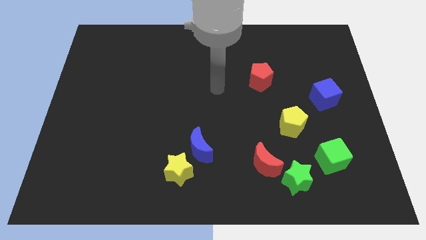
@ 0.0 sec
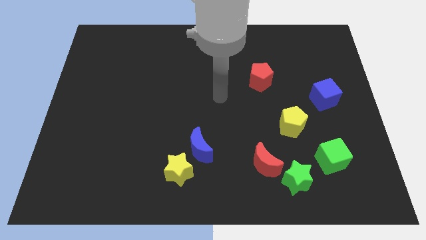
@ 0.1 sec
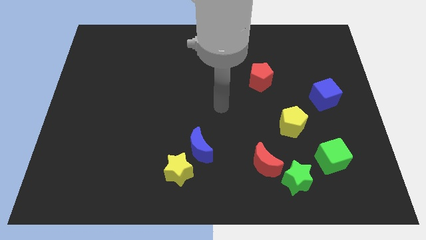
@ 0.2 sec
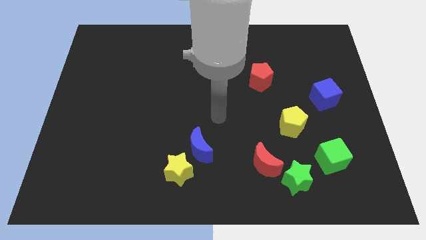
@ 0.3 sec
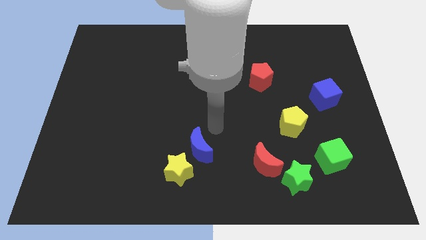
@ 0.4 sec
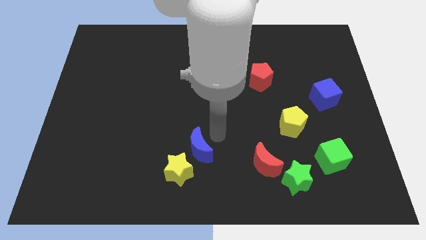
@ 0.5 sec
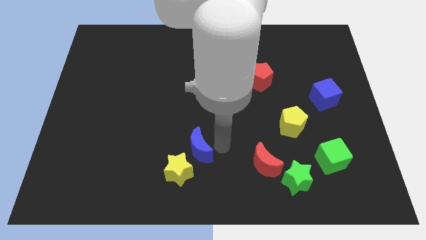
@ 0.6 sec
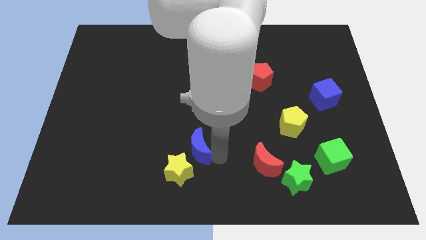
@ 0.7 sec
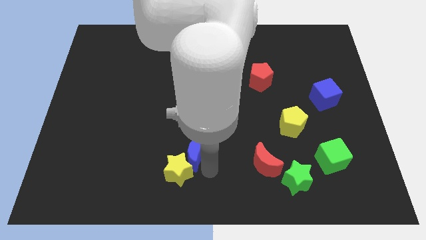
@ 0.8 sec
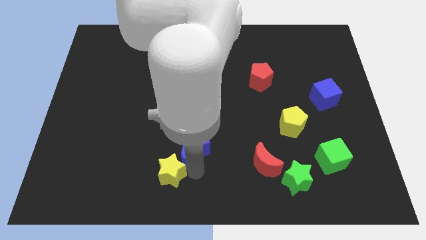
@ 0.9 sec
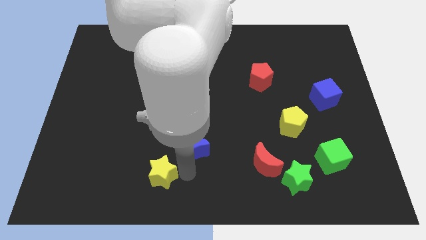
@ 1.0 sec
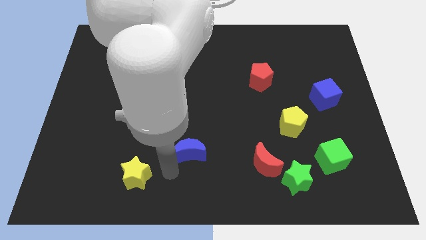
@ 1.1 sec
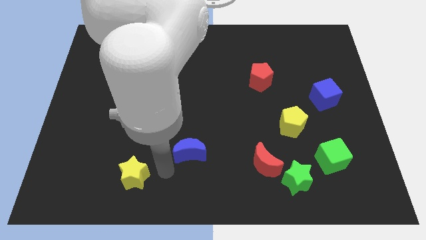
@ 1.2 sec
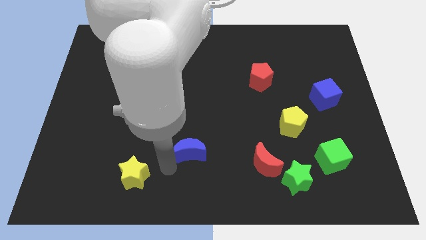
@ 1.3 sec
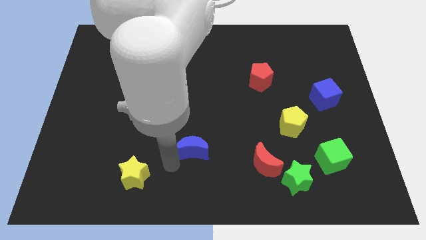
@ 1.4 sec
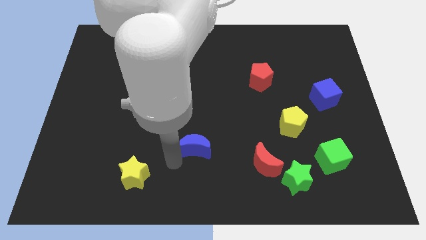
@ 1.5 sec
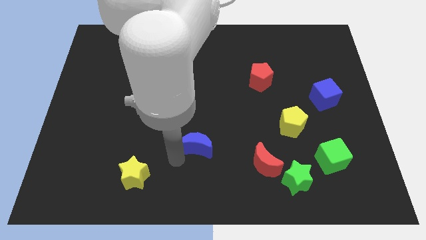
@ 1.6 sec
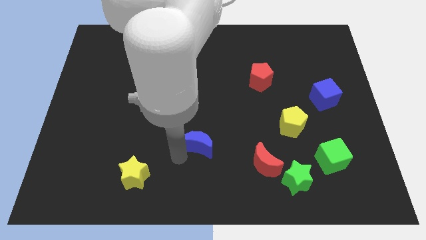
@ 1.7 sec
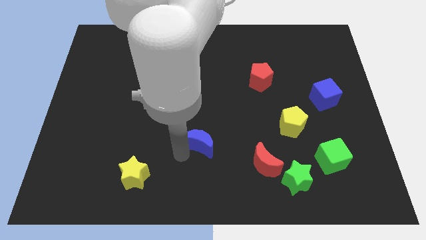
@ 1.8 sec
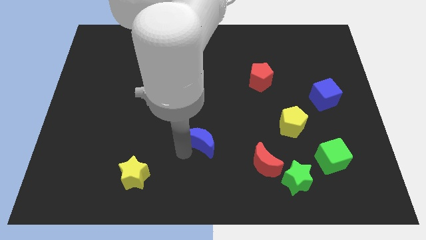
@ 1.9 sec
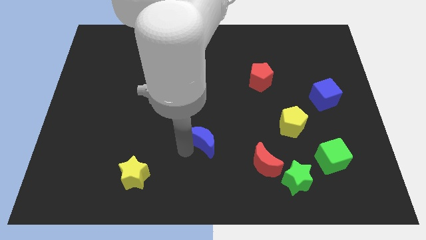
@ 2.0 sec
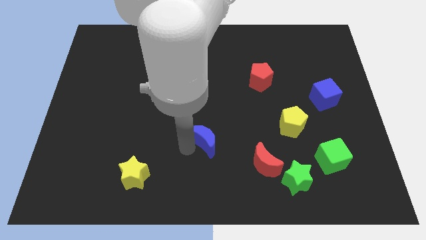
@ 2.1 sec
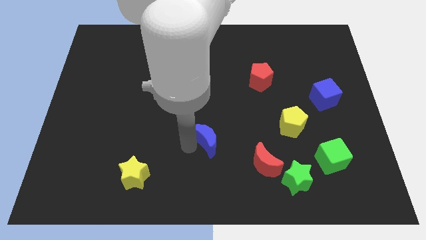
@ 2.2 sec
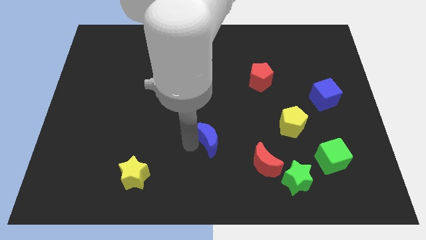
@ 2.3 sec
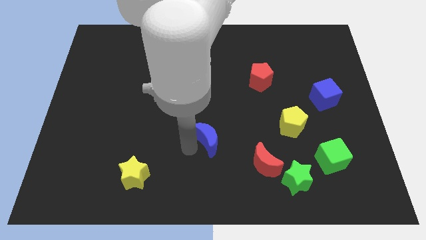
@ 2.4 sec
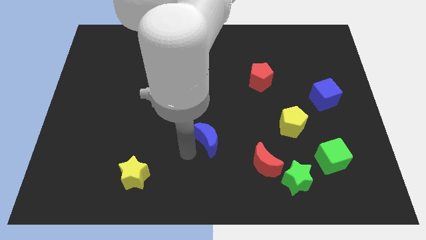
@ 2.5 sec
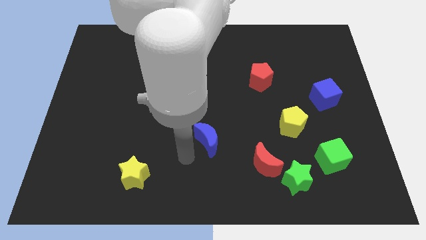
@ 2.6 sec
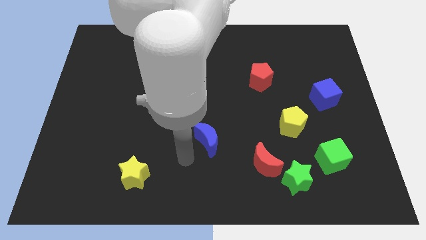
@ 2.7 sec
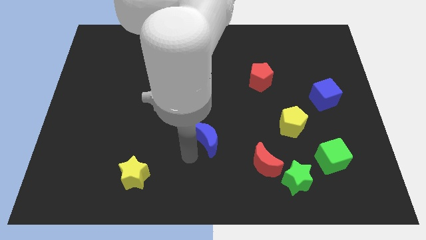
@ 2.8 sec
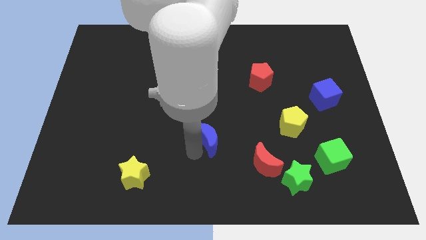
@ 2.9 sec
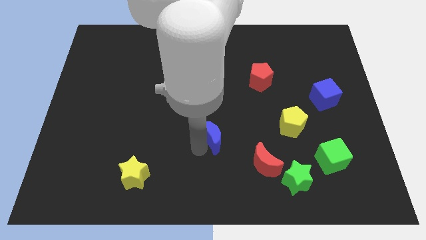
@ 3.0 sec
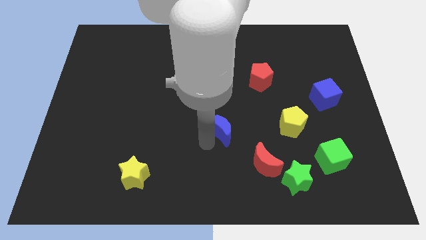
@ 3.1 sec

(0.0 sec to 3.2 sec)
slide the blue moon a bit up and then to the right

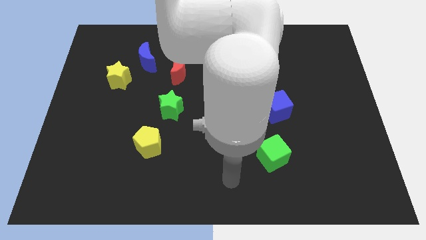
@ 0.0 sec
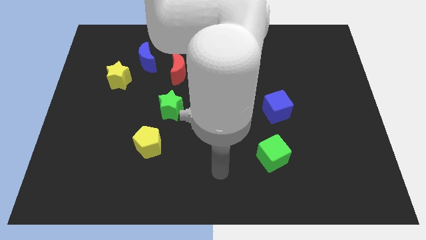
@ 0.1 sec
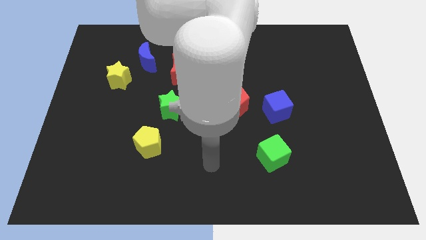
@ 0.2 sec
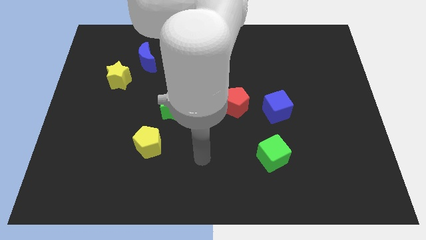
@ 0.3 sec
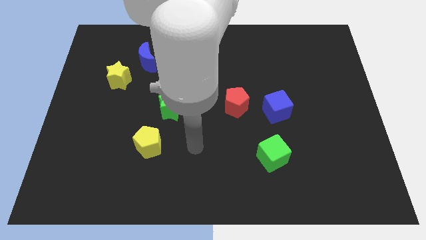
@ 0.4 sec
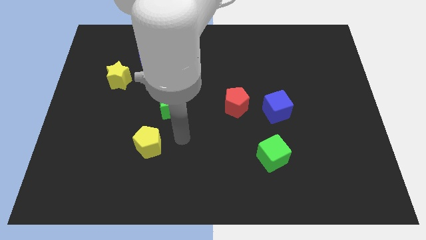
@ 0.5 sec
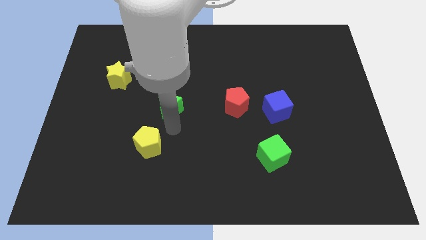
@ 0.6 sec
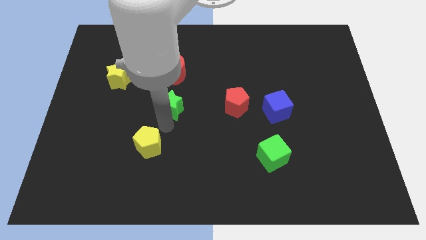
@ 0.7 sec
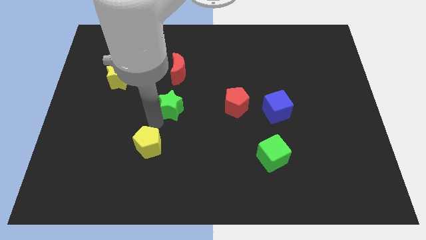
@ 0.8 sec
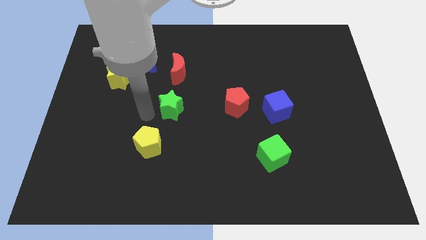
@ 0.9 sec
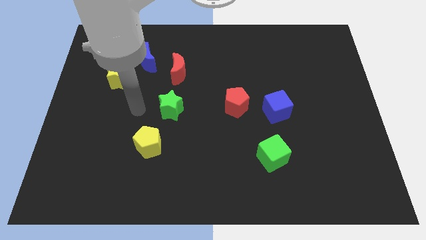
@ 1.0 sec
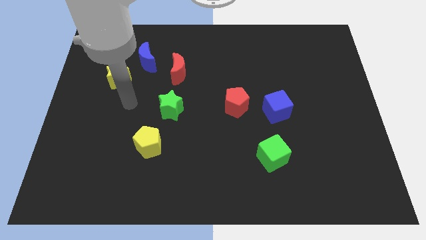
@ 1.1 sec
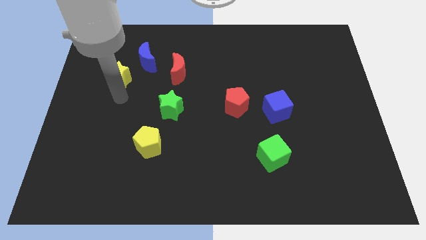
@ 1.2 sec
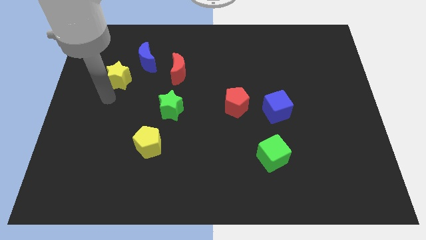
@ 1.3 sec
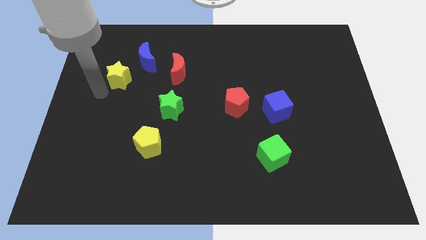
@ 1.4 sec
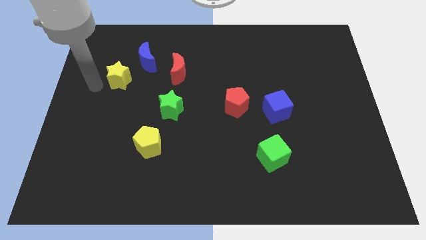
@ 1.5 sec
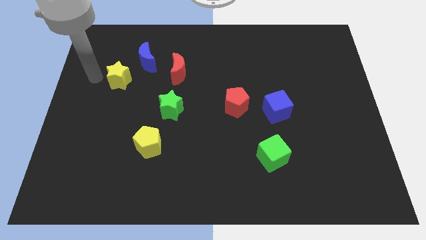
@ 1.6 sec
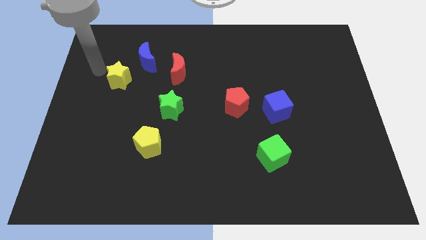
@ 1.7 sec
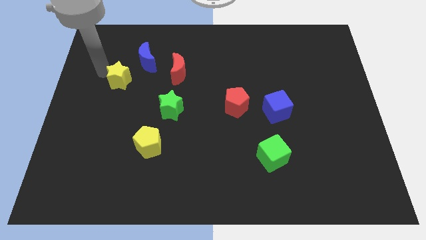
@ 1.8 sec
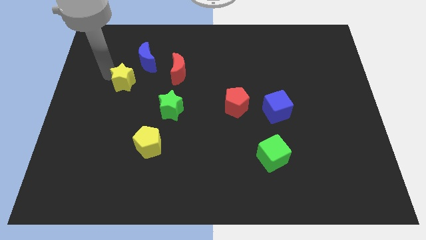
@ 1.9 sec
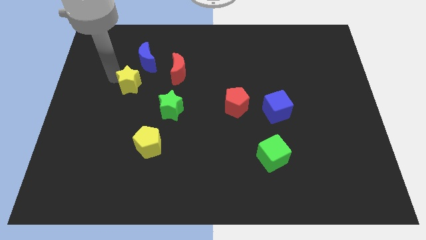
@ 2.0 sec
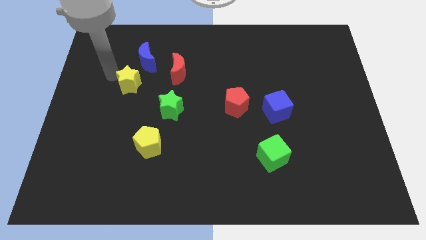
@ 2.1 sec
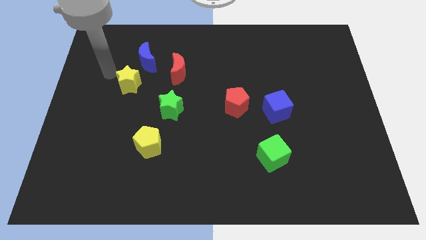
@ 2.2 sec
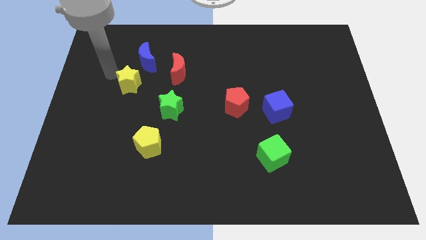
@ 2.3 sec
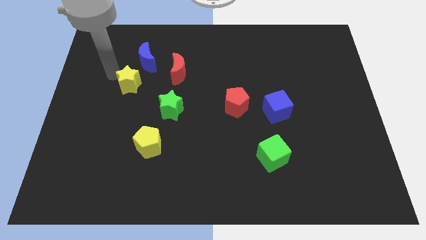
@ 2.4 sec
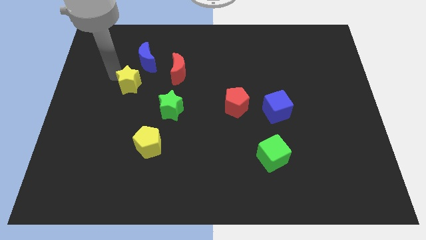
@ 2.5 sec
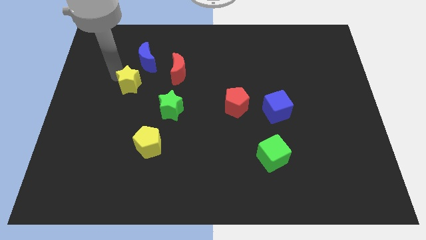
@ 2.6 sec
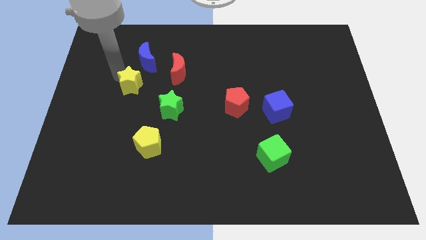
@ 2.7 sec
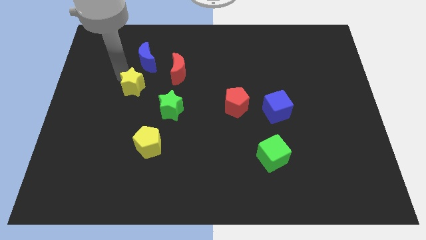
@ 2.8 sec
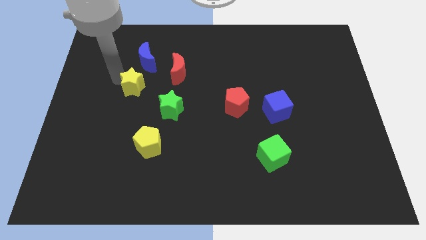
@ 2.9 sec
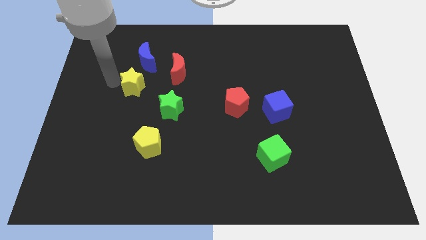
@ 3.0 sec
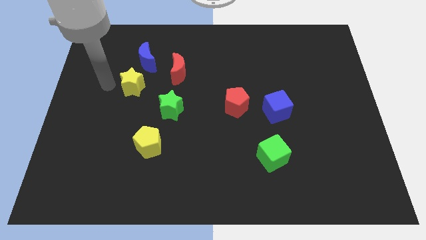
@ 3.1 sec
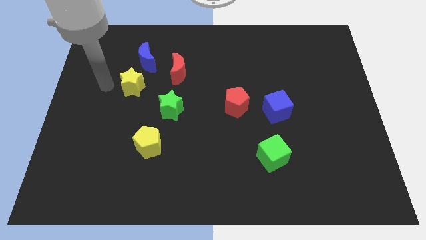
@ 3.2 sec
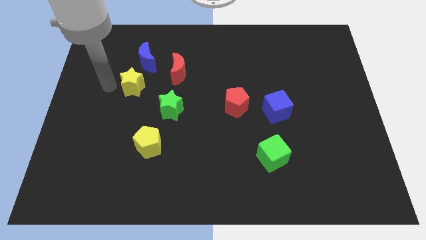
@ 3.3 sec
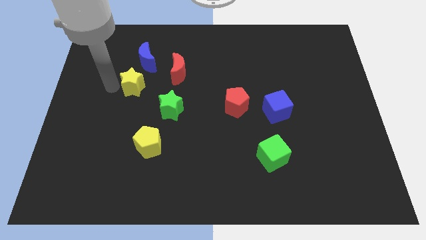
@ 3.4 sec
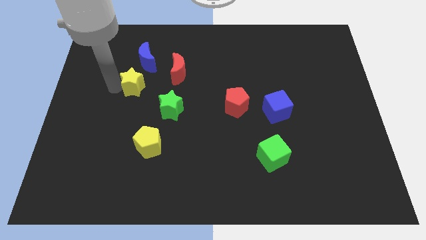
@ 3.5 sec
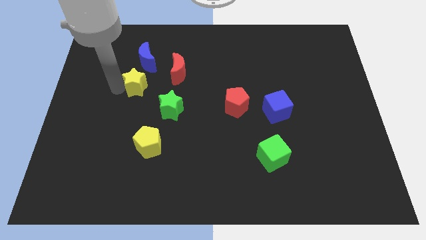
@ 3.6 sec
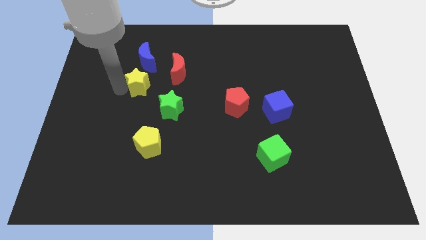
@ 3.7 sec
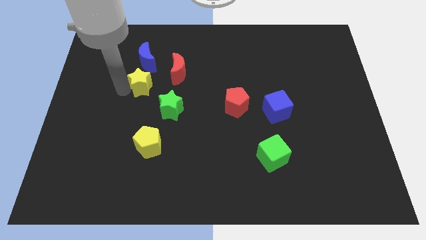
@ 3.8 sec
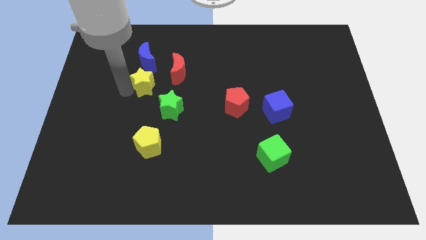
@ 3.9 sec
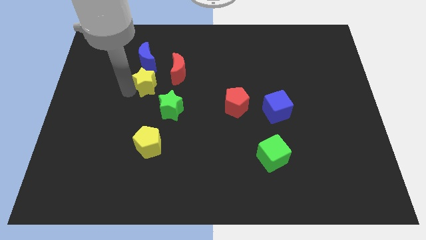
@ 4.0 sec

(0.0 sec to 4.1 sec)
slightly move the yellow star right

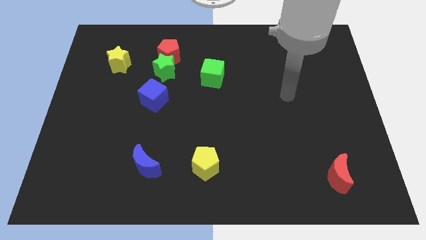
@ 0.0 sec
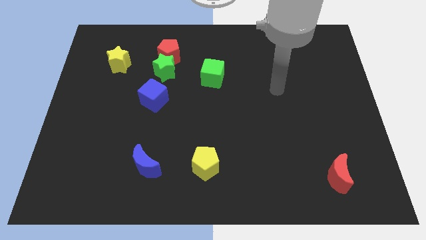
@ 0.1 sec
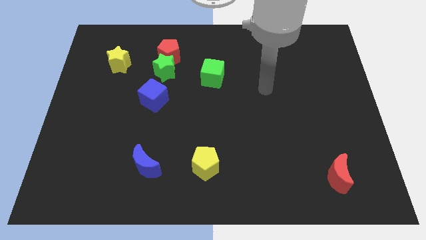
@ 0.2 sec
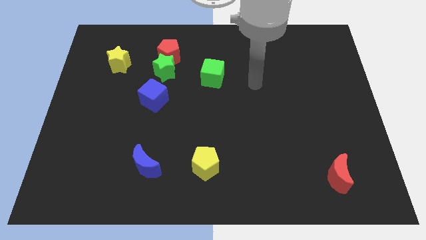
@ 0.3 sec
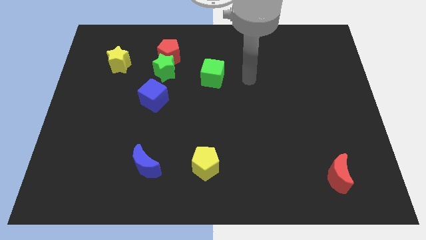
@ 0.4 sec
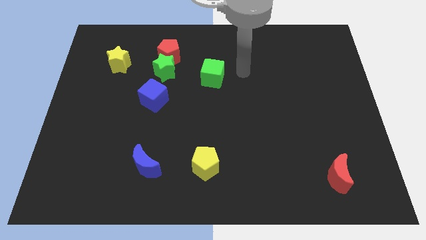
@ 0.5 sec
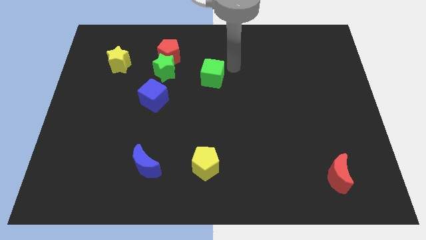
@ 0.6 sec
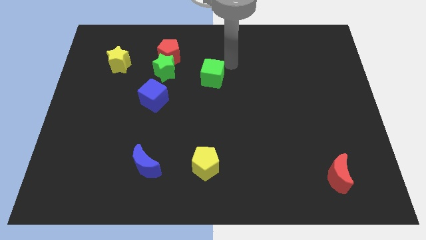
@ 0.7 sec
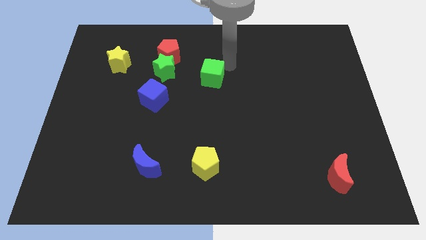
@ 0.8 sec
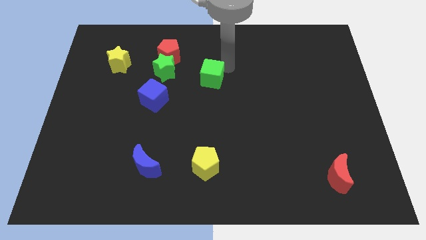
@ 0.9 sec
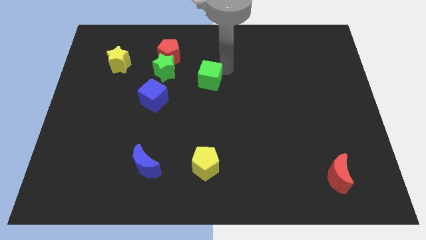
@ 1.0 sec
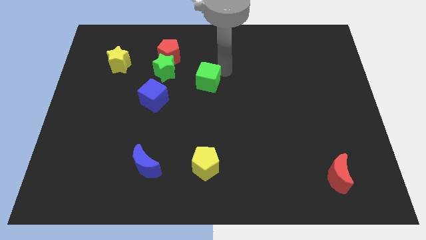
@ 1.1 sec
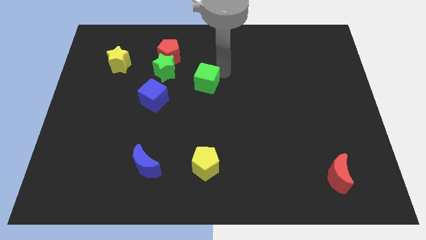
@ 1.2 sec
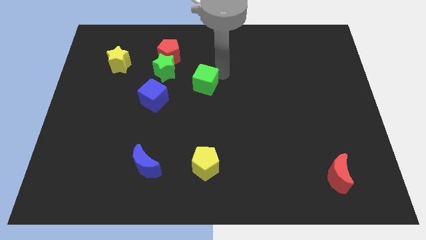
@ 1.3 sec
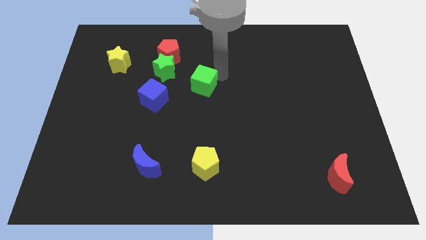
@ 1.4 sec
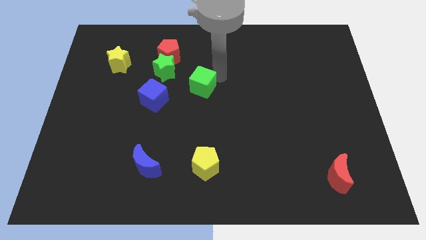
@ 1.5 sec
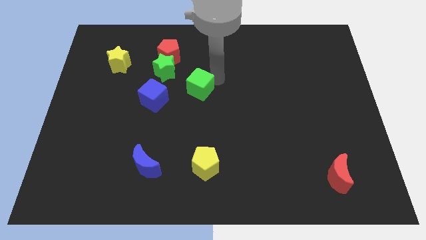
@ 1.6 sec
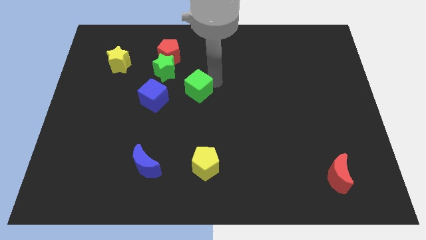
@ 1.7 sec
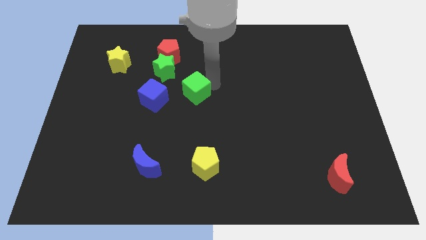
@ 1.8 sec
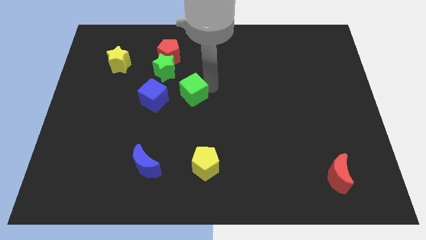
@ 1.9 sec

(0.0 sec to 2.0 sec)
slide the green cube down and to the left a bit
